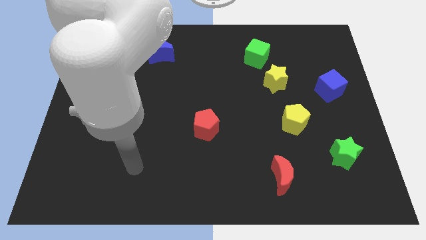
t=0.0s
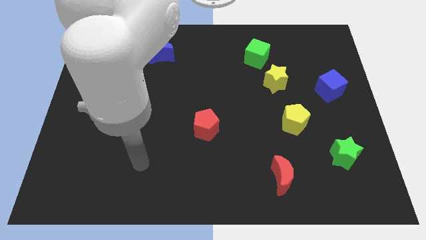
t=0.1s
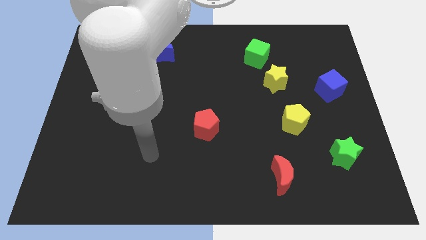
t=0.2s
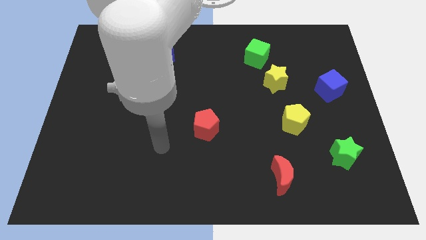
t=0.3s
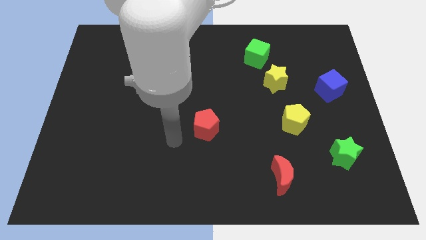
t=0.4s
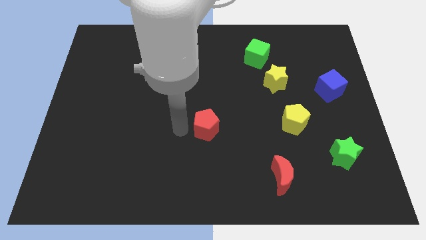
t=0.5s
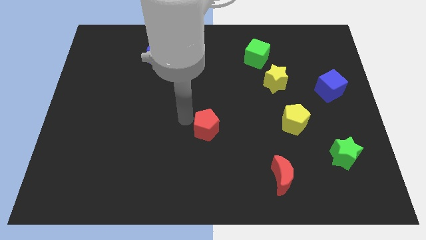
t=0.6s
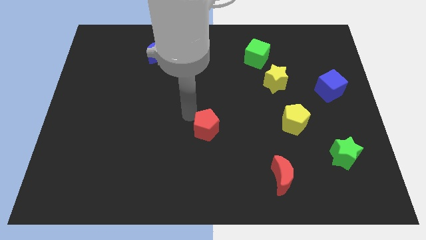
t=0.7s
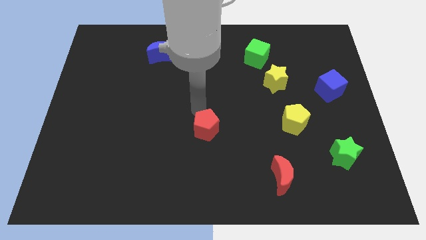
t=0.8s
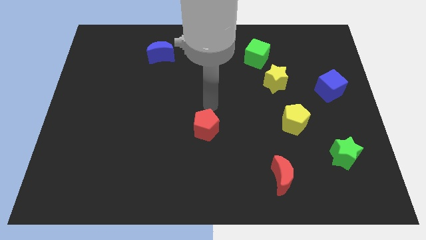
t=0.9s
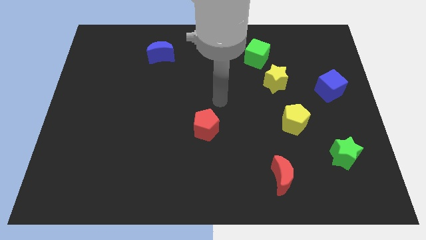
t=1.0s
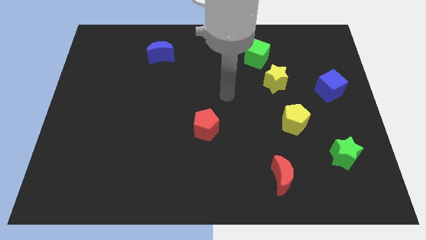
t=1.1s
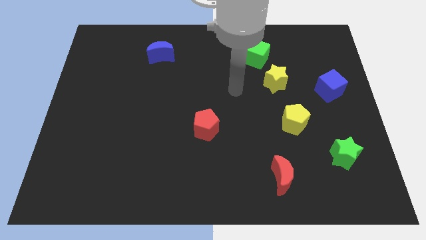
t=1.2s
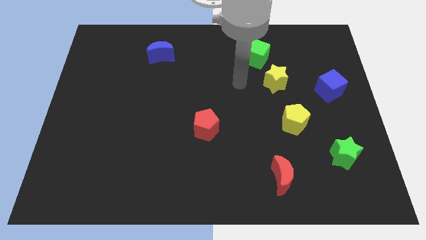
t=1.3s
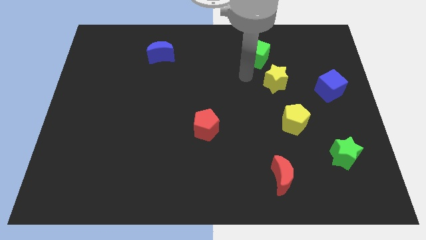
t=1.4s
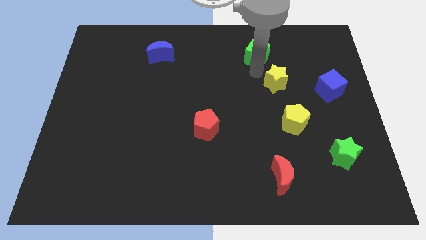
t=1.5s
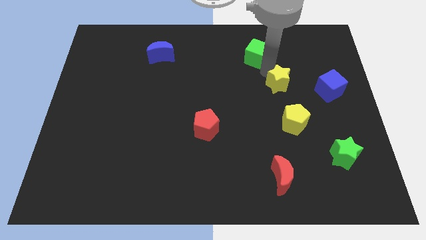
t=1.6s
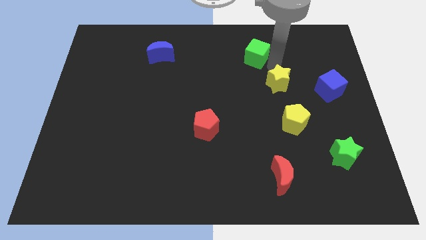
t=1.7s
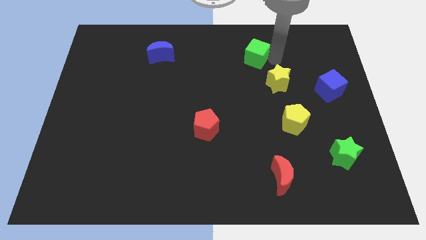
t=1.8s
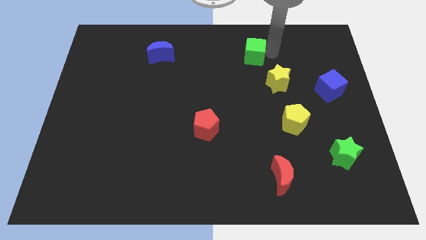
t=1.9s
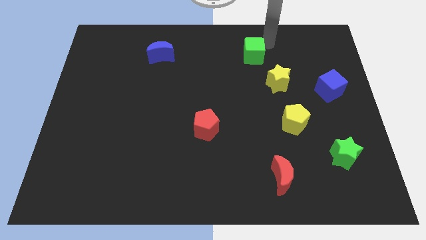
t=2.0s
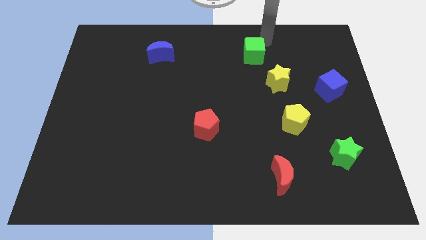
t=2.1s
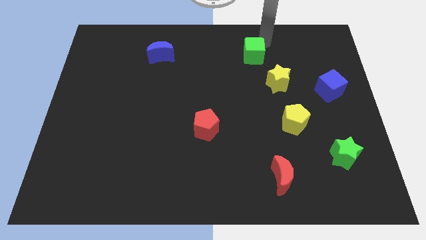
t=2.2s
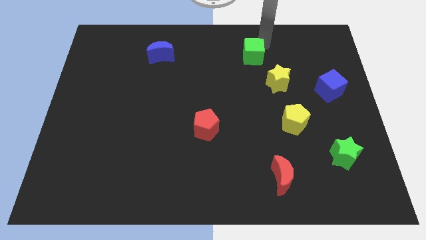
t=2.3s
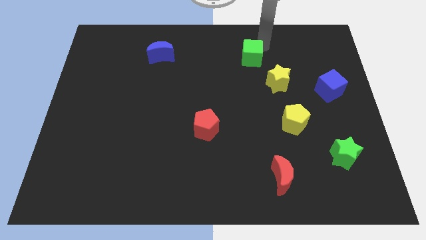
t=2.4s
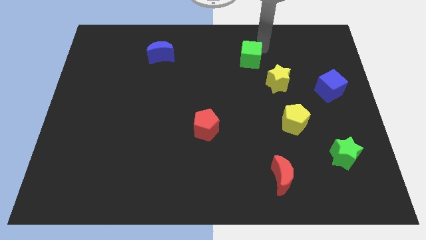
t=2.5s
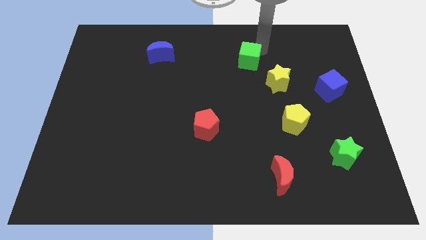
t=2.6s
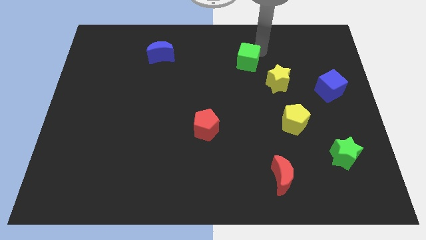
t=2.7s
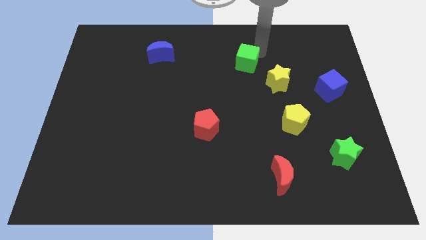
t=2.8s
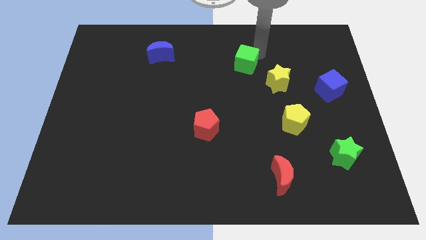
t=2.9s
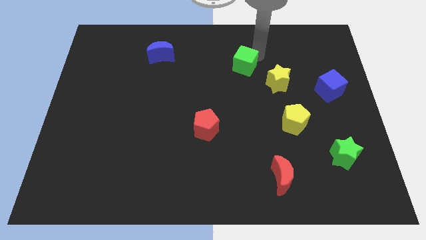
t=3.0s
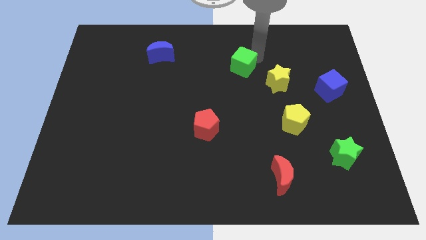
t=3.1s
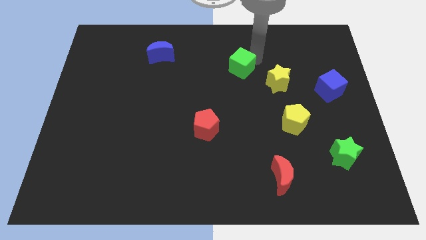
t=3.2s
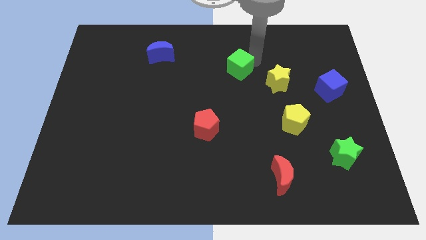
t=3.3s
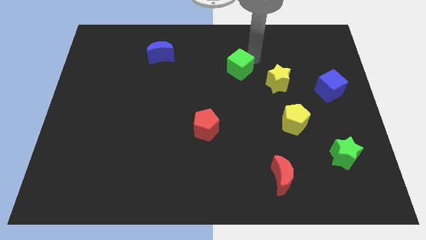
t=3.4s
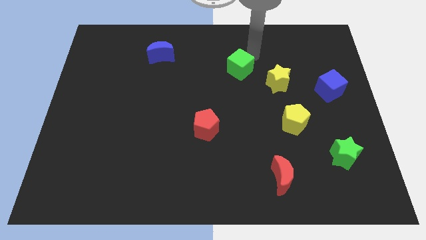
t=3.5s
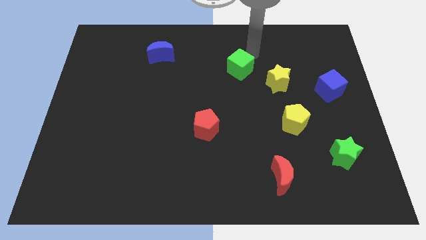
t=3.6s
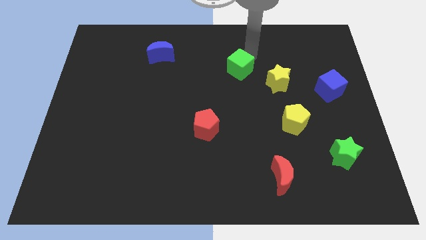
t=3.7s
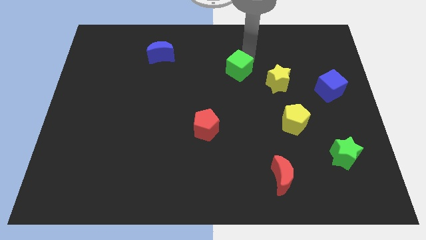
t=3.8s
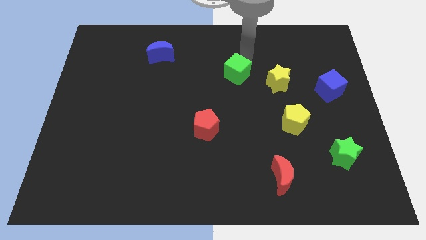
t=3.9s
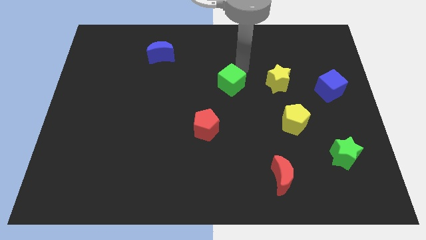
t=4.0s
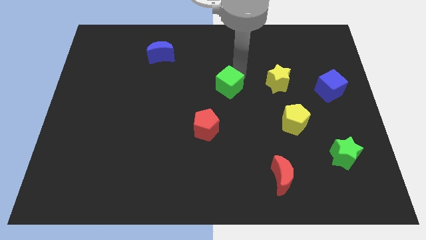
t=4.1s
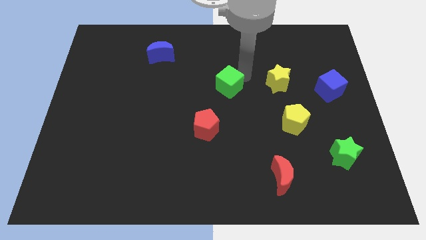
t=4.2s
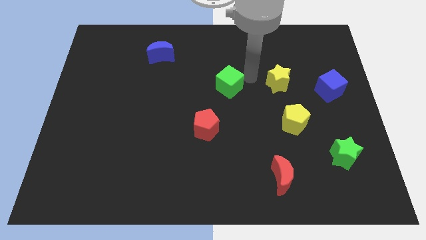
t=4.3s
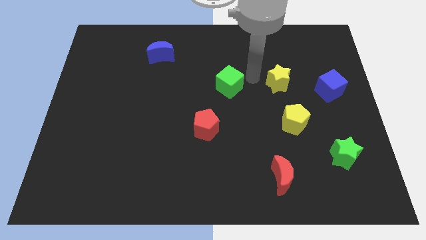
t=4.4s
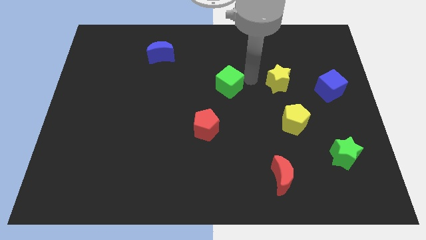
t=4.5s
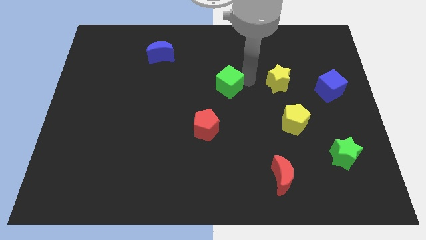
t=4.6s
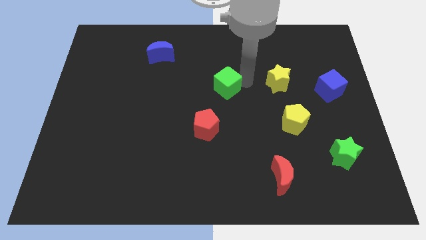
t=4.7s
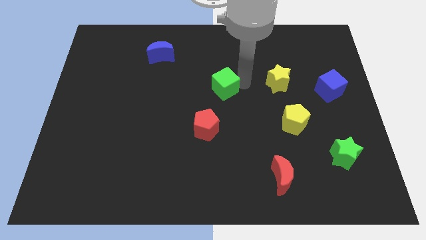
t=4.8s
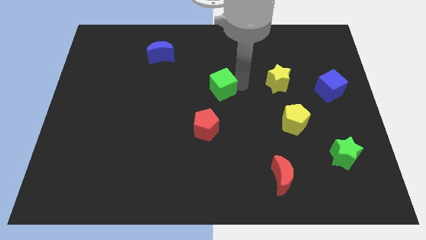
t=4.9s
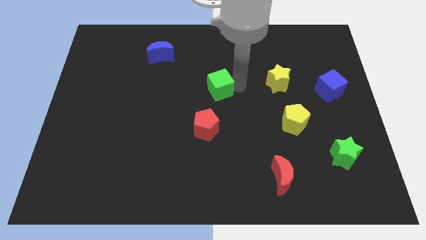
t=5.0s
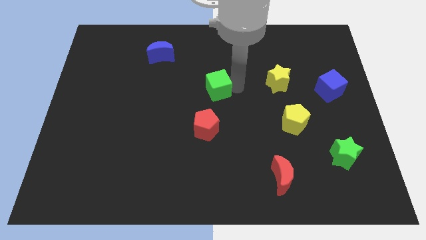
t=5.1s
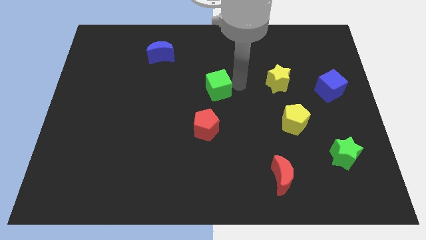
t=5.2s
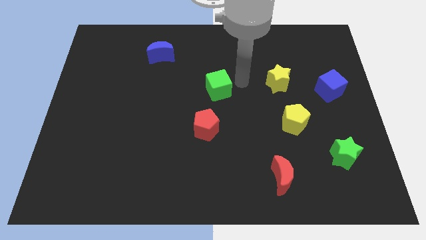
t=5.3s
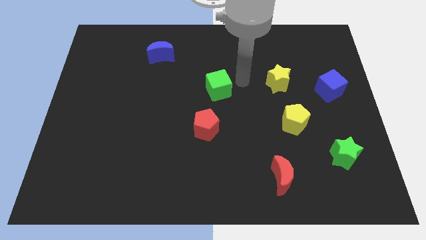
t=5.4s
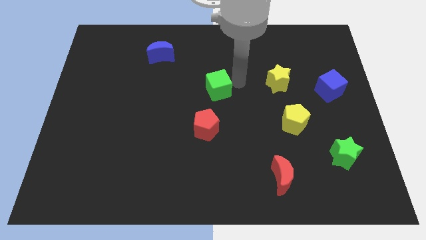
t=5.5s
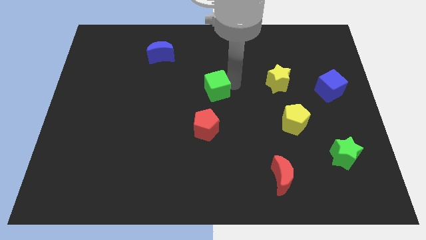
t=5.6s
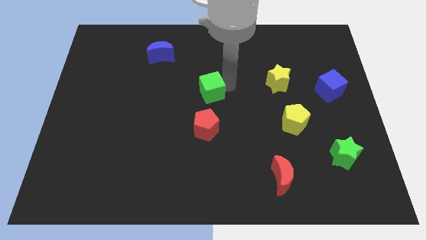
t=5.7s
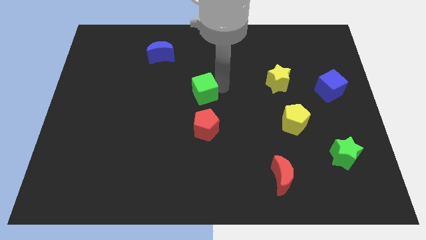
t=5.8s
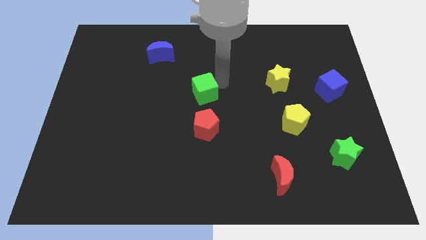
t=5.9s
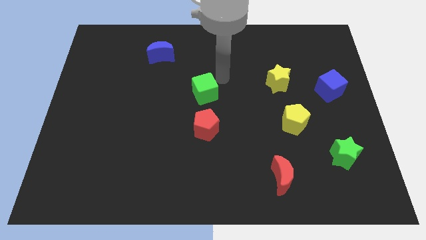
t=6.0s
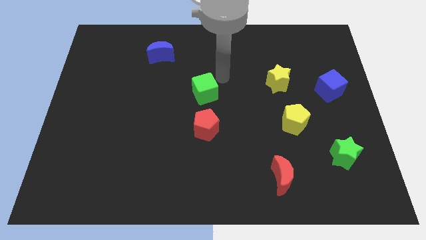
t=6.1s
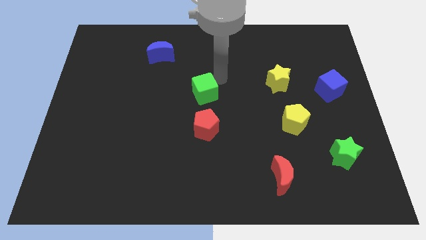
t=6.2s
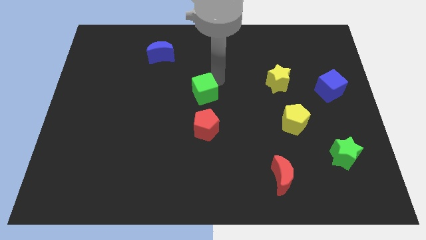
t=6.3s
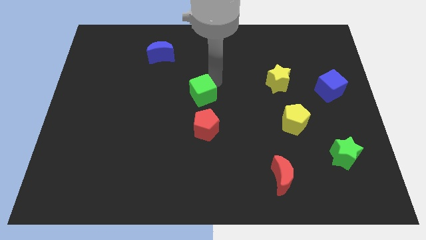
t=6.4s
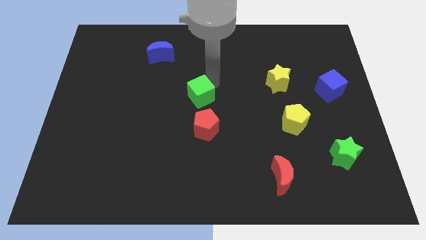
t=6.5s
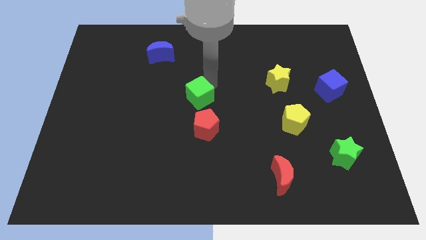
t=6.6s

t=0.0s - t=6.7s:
slide the green cube downwards and left

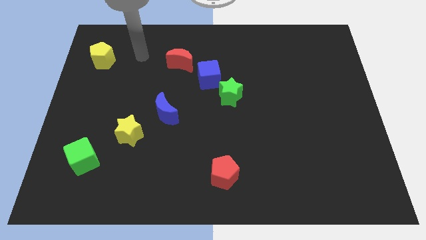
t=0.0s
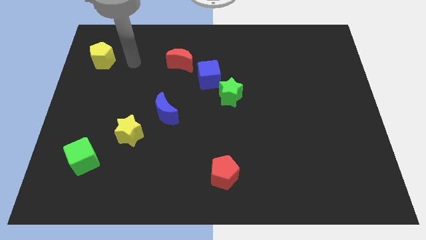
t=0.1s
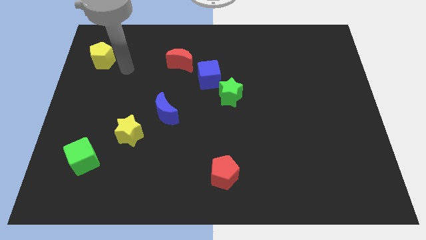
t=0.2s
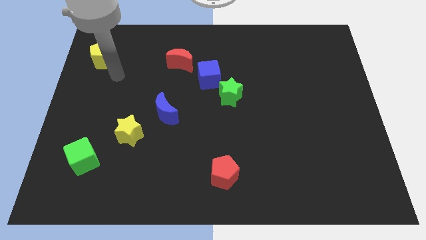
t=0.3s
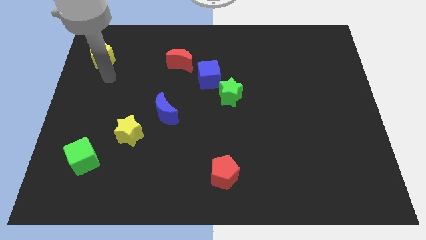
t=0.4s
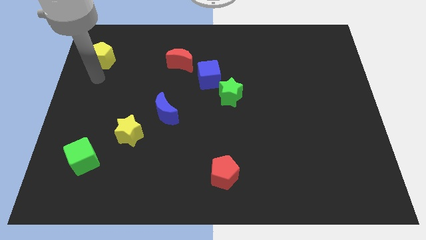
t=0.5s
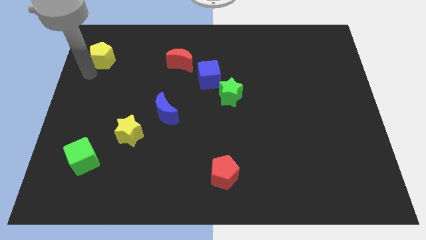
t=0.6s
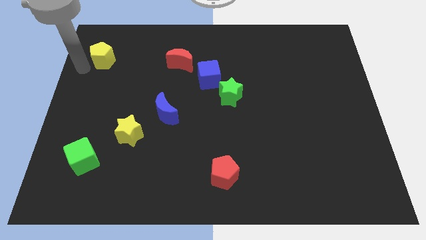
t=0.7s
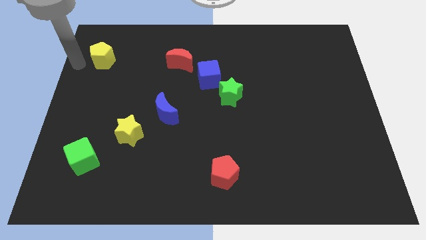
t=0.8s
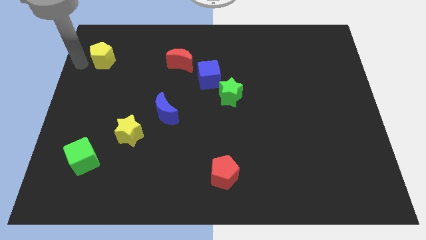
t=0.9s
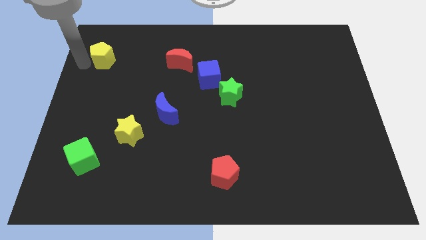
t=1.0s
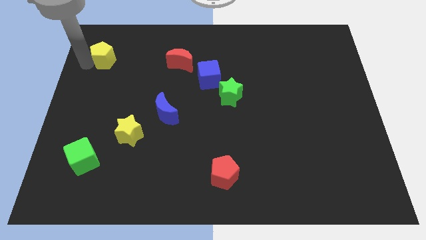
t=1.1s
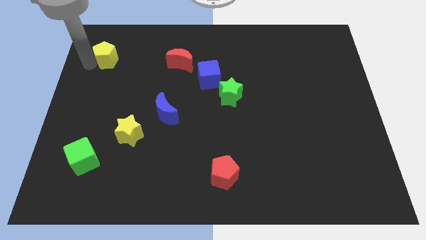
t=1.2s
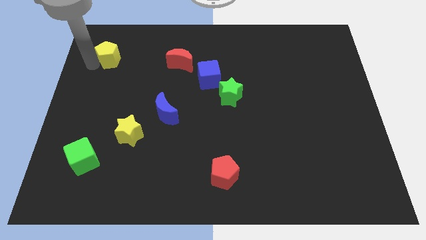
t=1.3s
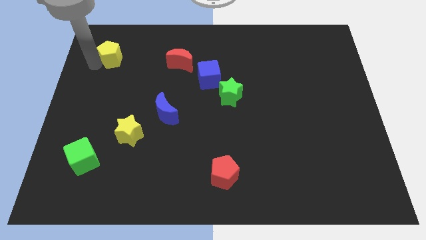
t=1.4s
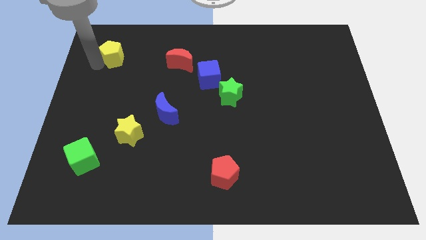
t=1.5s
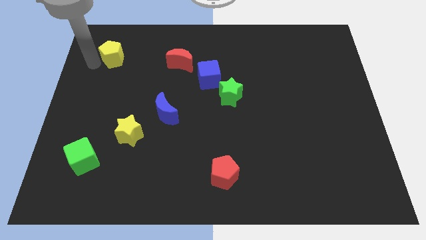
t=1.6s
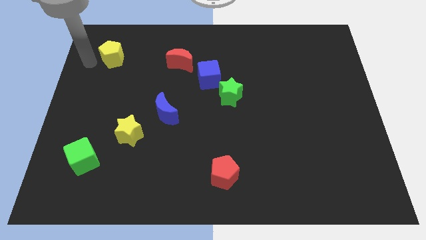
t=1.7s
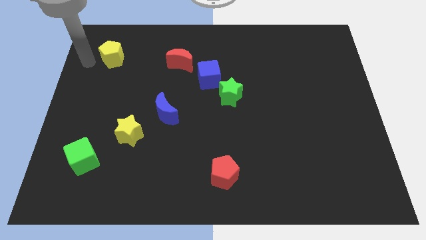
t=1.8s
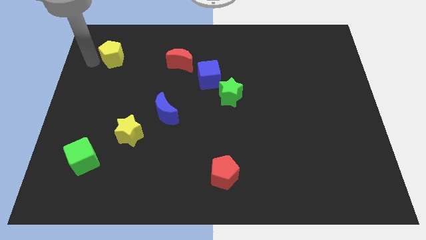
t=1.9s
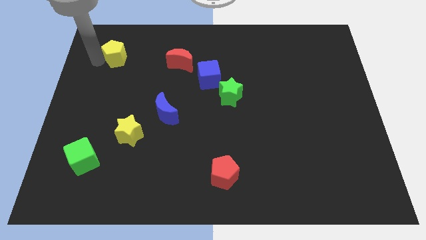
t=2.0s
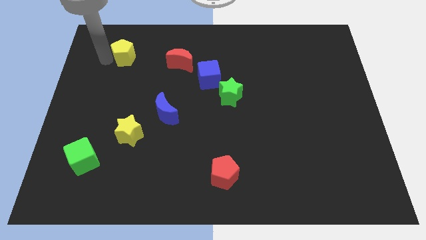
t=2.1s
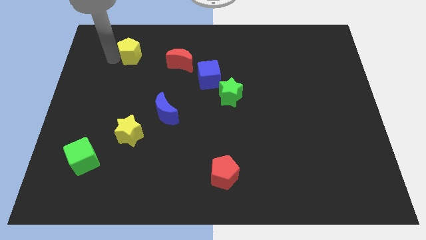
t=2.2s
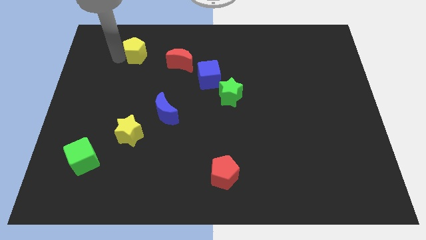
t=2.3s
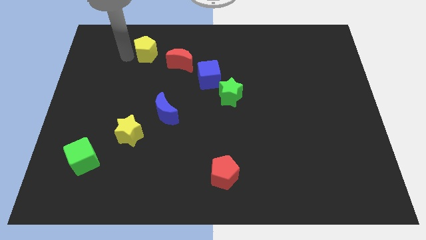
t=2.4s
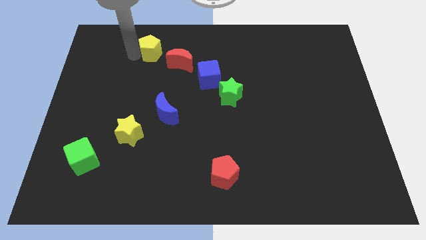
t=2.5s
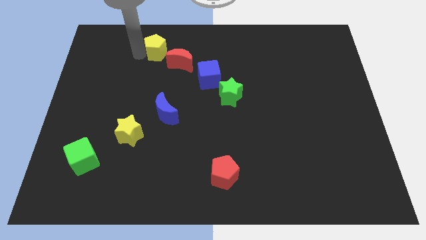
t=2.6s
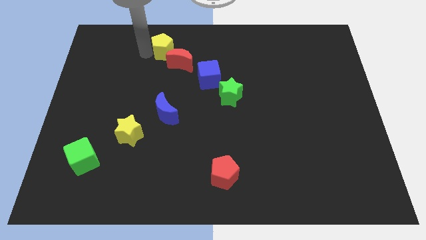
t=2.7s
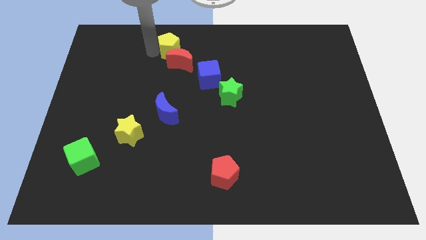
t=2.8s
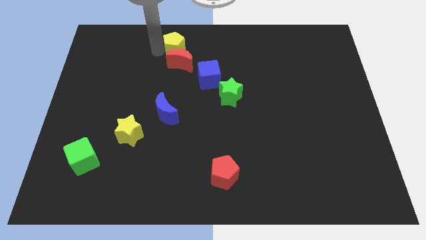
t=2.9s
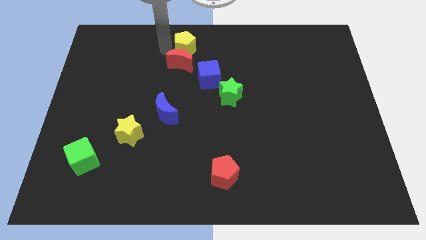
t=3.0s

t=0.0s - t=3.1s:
move the yellow pentagon to the right
